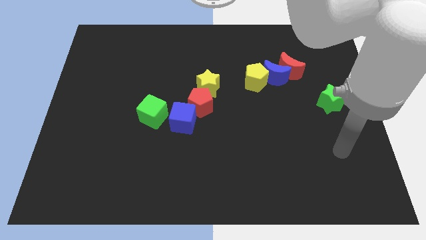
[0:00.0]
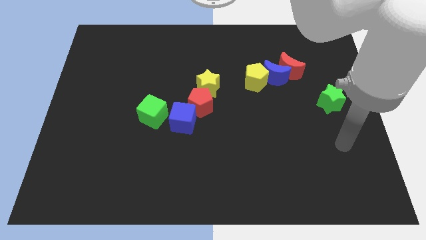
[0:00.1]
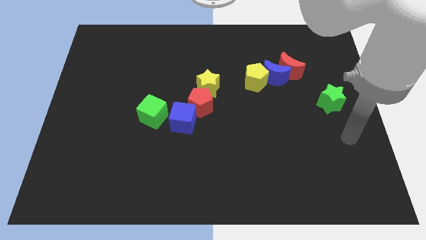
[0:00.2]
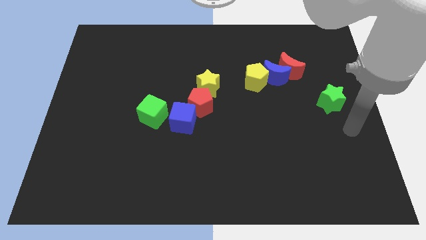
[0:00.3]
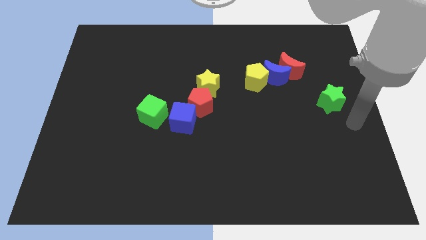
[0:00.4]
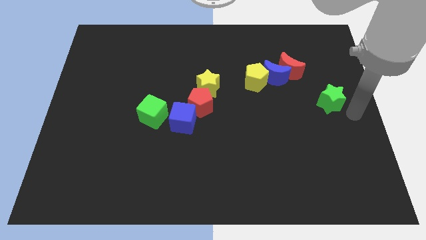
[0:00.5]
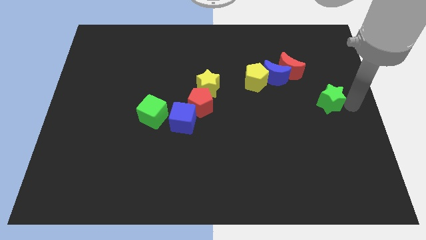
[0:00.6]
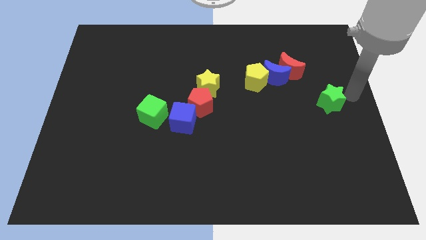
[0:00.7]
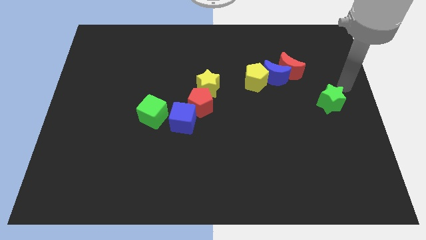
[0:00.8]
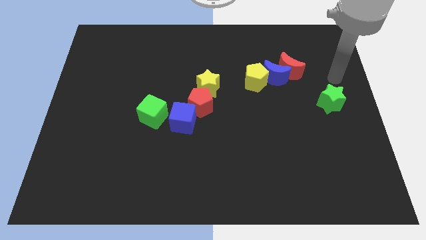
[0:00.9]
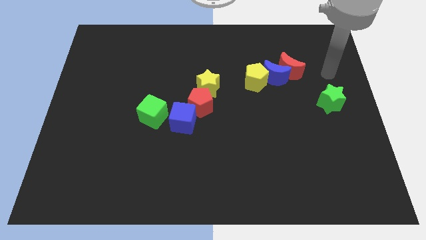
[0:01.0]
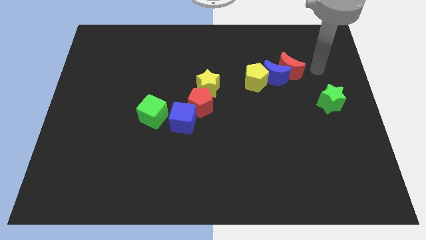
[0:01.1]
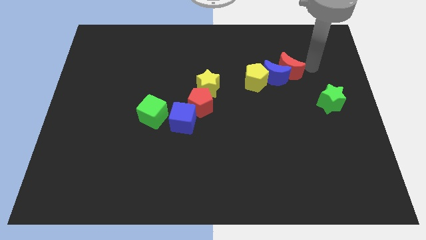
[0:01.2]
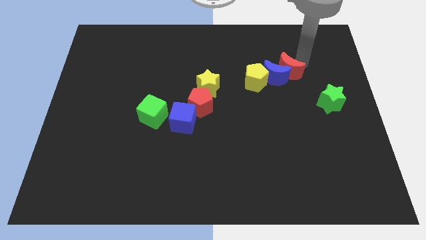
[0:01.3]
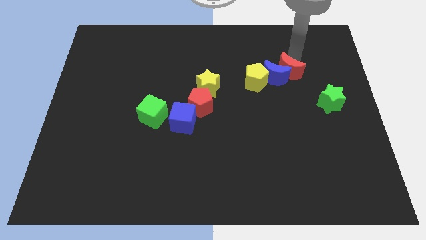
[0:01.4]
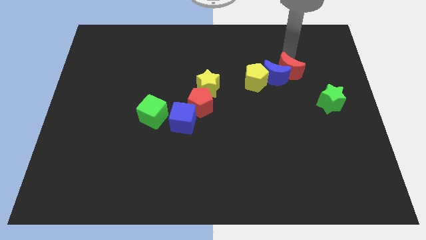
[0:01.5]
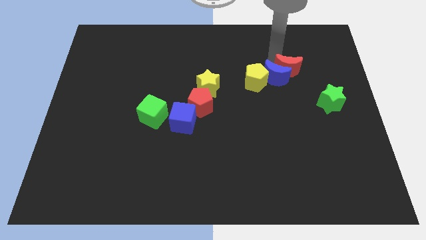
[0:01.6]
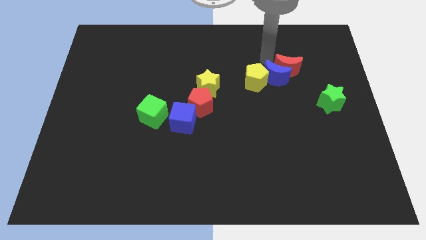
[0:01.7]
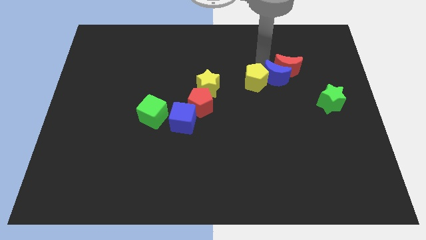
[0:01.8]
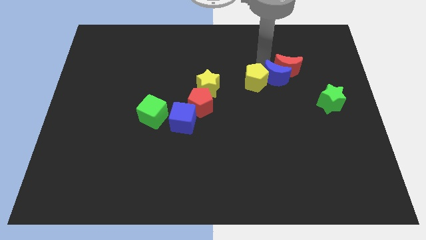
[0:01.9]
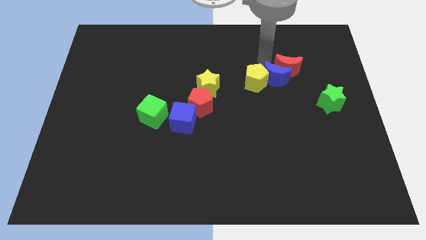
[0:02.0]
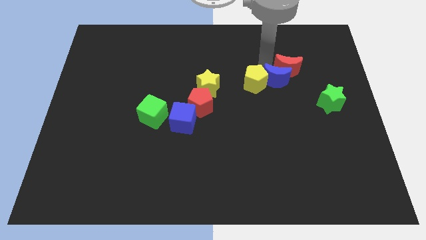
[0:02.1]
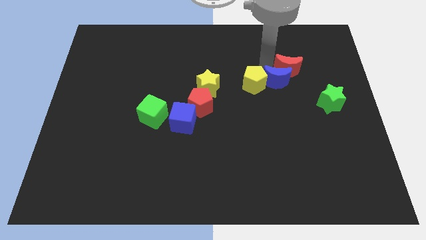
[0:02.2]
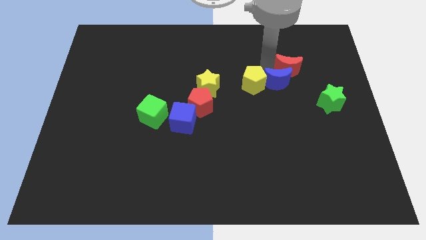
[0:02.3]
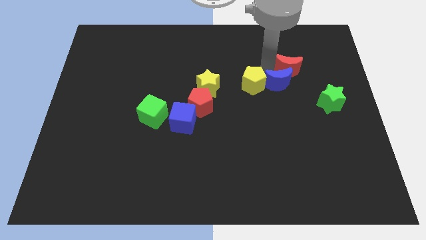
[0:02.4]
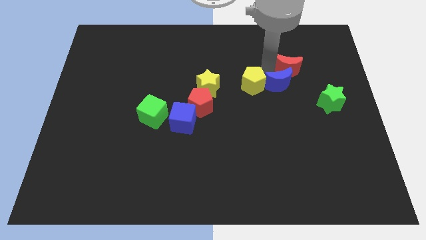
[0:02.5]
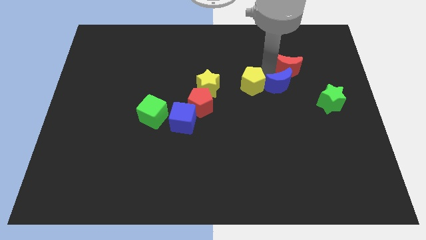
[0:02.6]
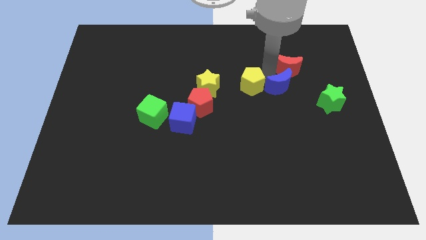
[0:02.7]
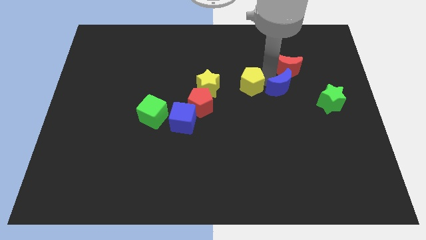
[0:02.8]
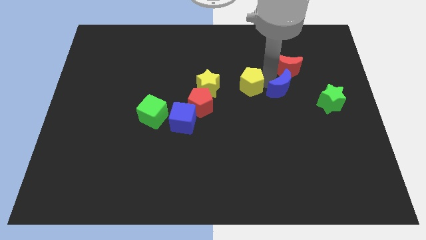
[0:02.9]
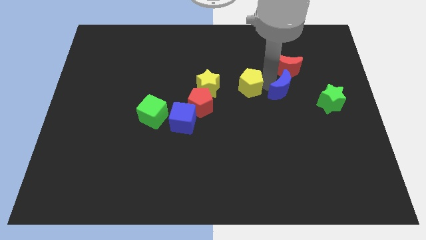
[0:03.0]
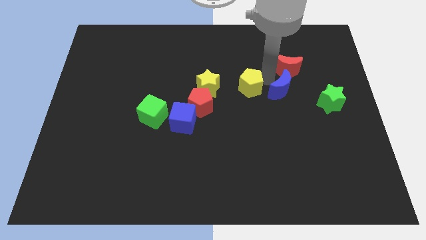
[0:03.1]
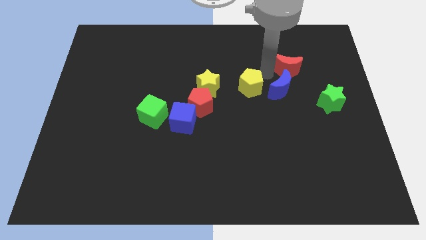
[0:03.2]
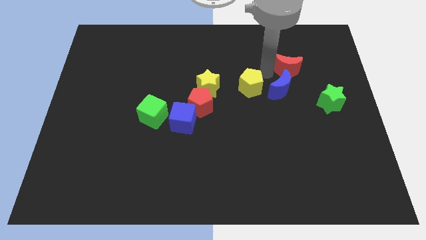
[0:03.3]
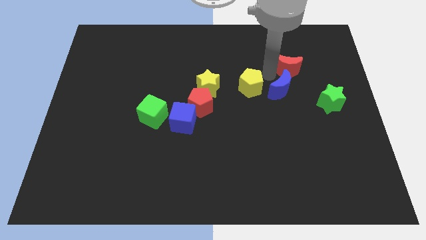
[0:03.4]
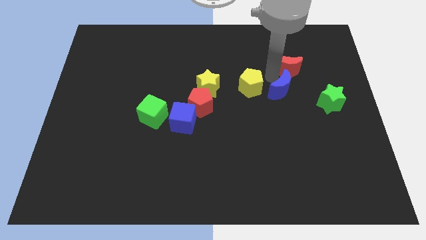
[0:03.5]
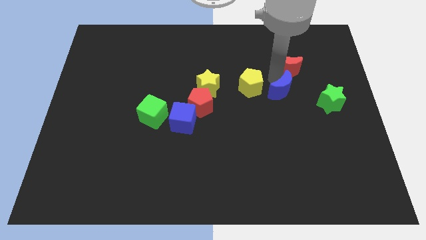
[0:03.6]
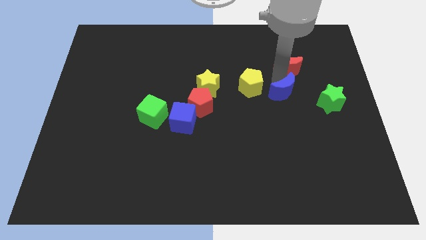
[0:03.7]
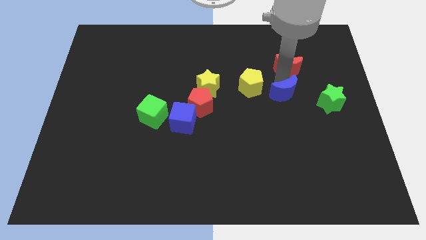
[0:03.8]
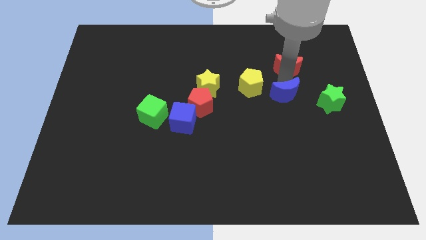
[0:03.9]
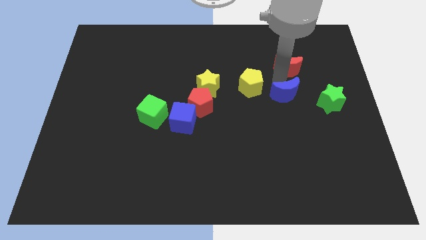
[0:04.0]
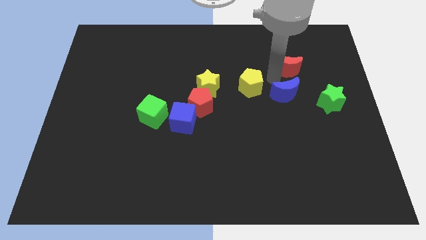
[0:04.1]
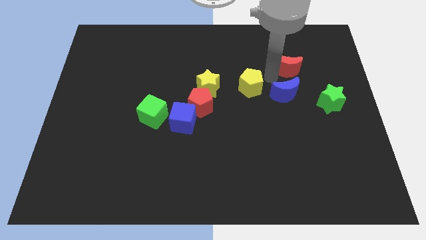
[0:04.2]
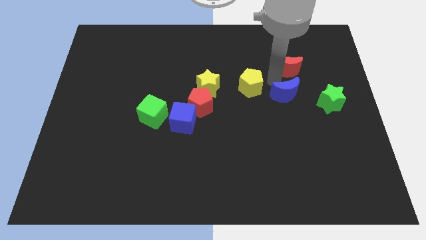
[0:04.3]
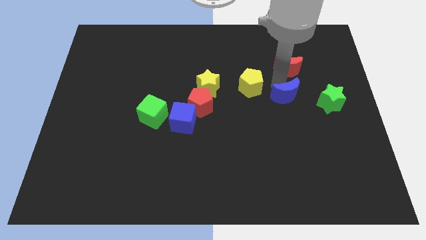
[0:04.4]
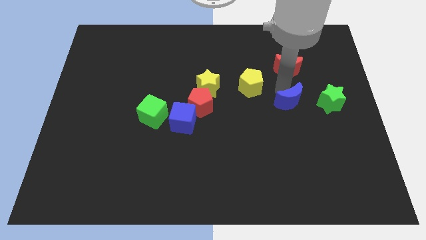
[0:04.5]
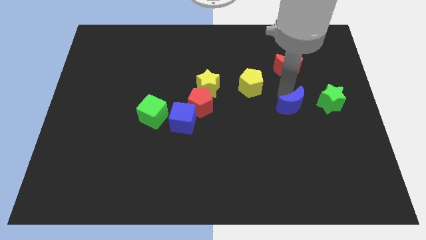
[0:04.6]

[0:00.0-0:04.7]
move the blue moon away from the red moon and yellow pentagon

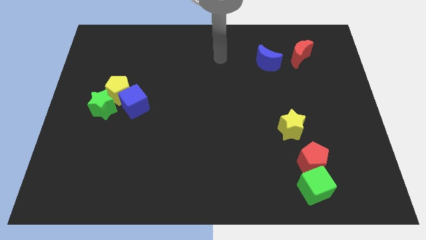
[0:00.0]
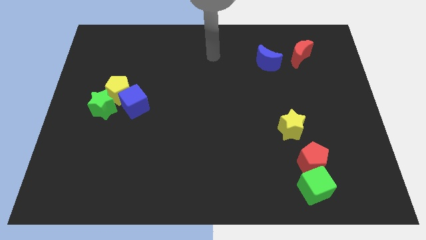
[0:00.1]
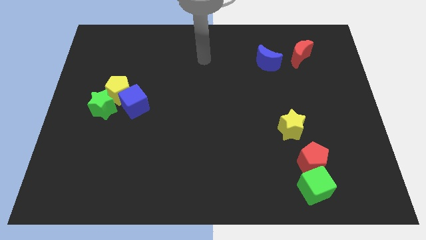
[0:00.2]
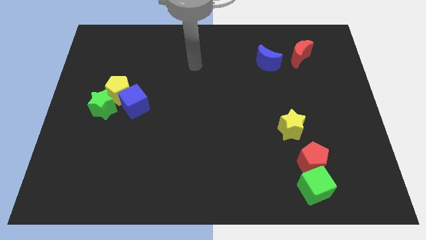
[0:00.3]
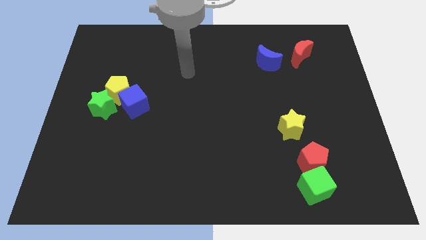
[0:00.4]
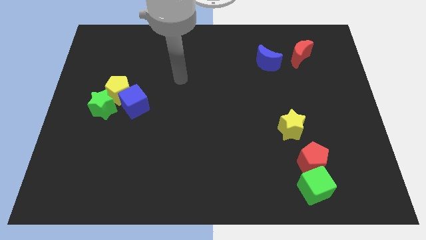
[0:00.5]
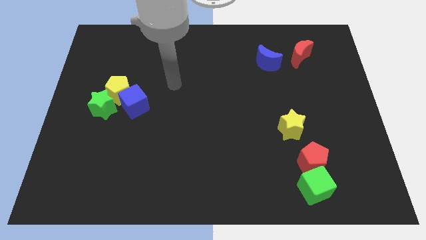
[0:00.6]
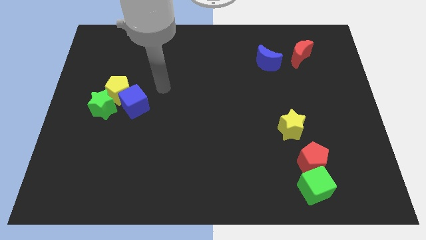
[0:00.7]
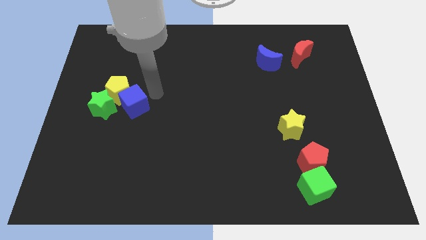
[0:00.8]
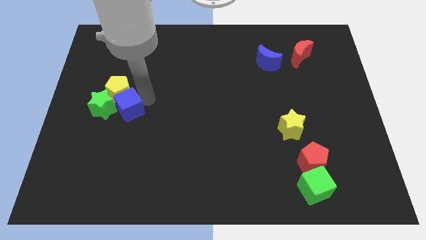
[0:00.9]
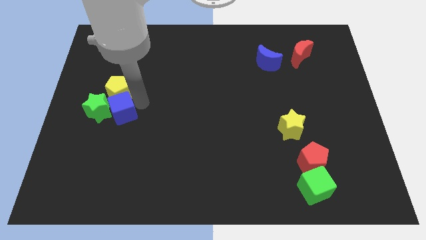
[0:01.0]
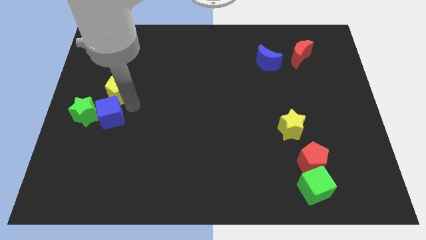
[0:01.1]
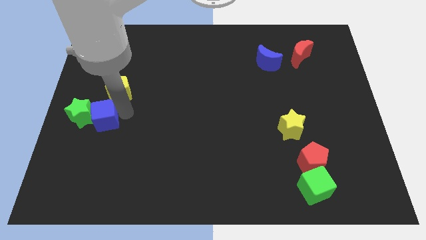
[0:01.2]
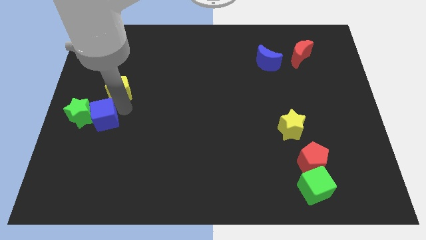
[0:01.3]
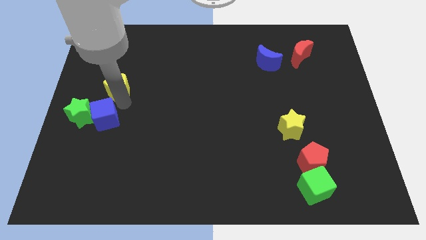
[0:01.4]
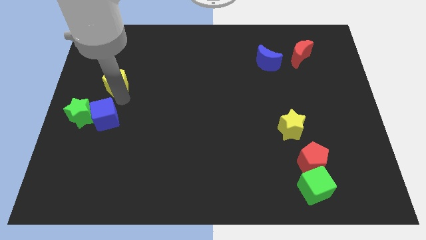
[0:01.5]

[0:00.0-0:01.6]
move the yellow pentagon away from the blue cube and green star

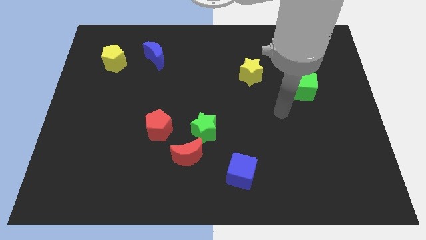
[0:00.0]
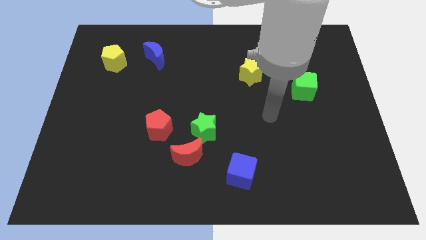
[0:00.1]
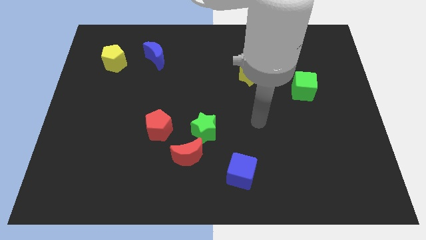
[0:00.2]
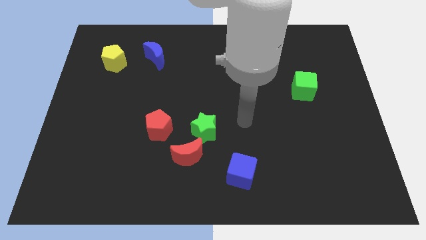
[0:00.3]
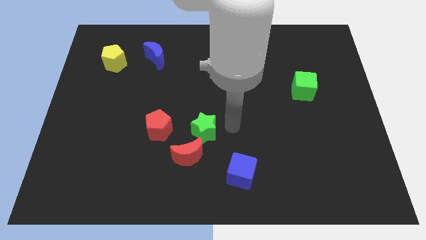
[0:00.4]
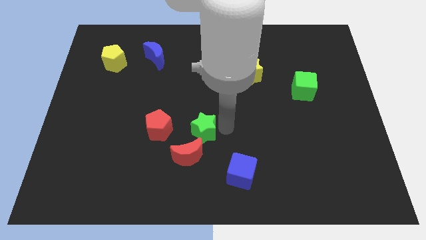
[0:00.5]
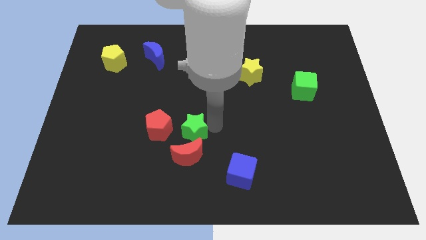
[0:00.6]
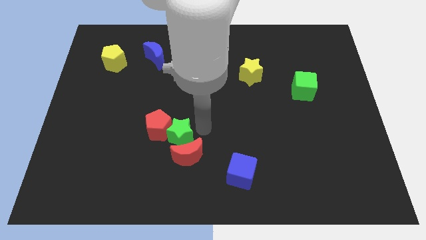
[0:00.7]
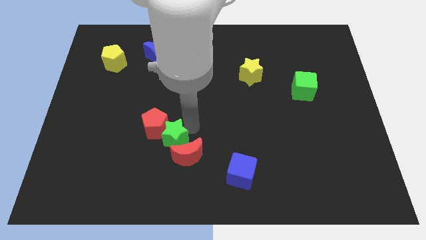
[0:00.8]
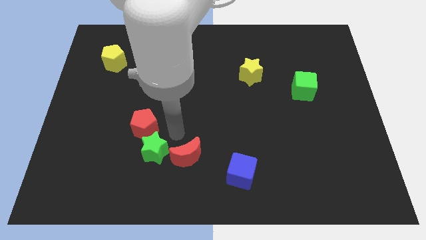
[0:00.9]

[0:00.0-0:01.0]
separate the red moon from the green star and red pentagon

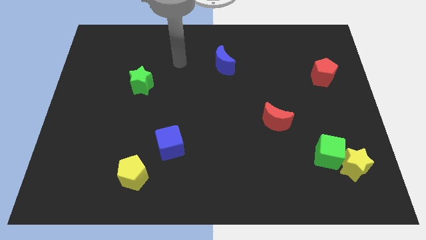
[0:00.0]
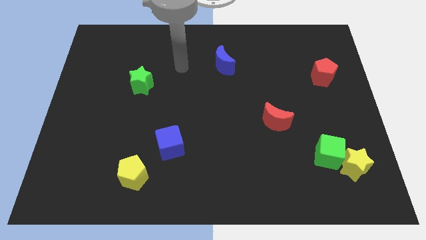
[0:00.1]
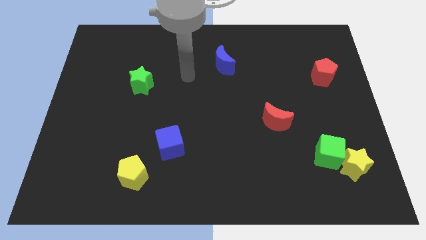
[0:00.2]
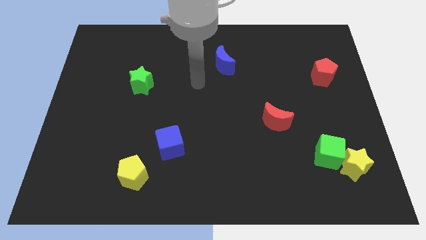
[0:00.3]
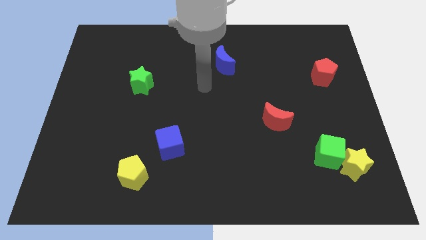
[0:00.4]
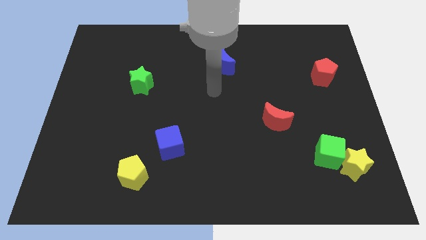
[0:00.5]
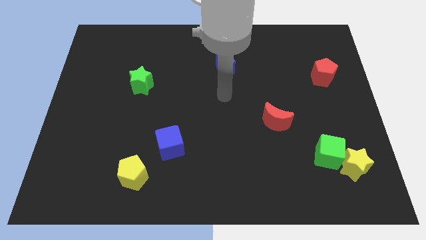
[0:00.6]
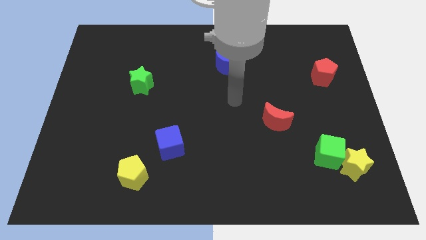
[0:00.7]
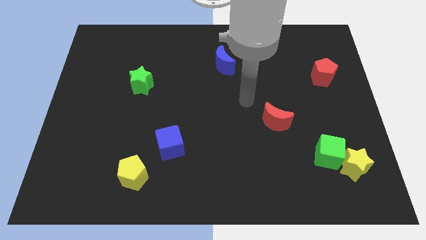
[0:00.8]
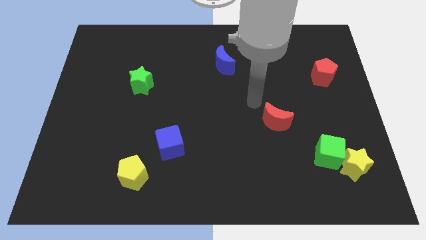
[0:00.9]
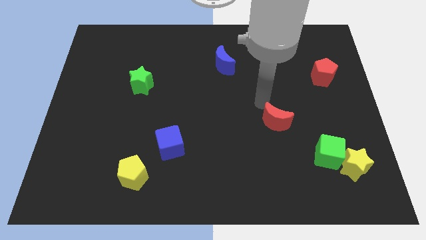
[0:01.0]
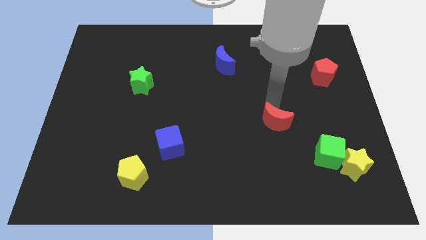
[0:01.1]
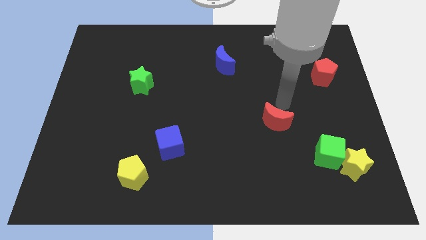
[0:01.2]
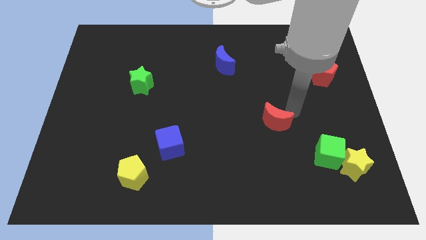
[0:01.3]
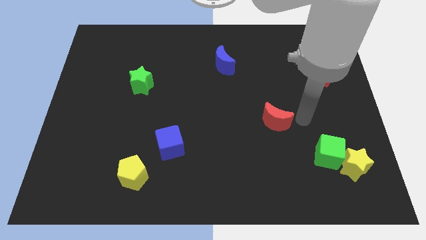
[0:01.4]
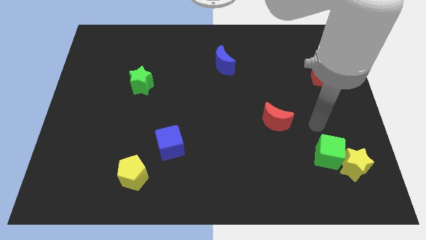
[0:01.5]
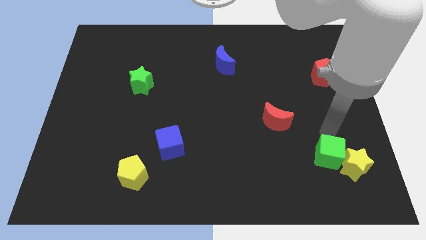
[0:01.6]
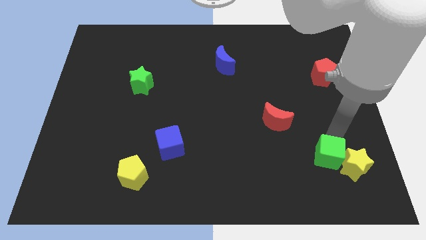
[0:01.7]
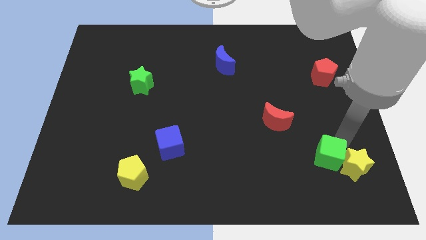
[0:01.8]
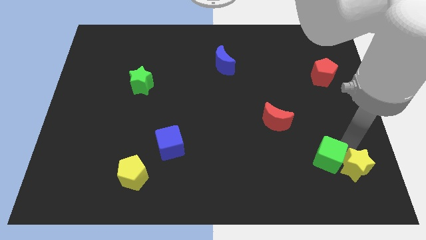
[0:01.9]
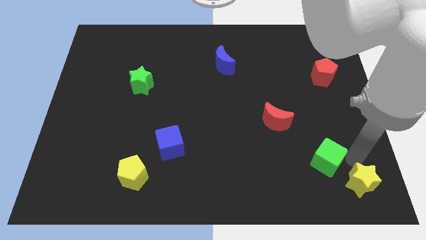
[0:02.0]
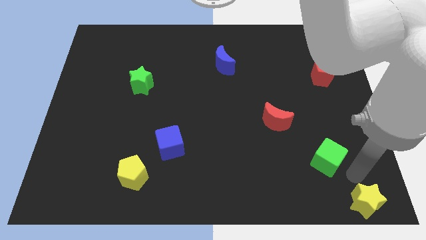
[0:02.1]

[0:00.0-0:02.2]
move the green cube away from the yellow star
